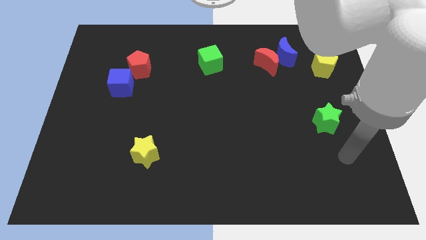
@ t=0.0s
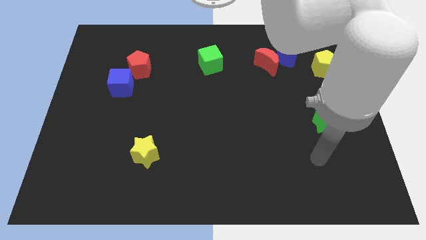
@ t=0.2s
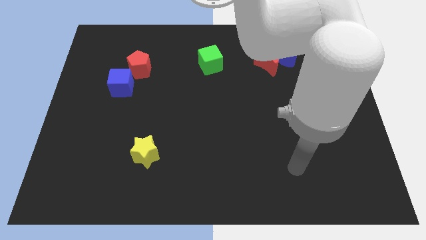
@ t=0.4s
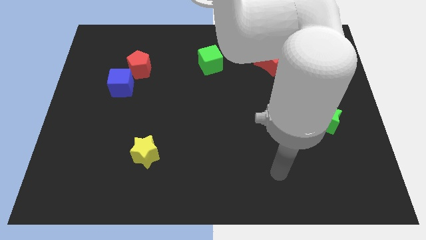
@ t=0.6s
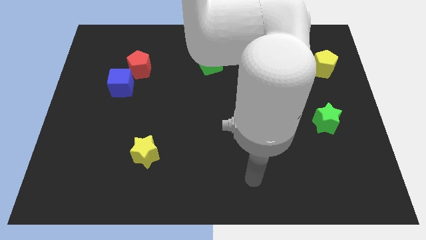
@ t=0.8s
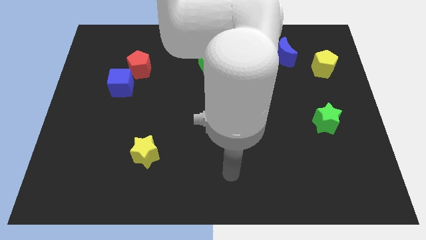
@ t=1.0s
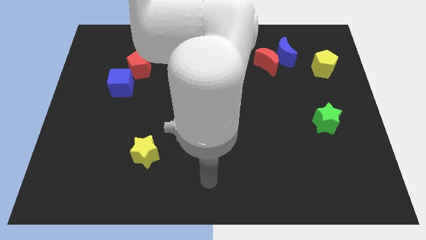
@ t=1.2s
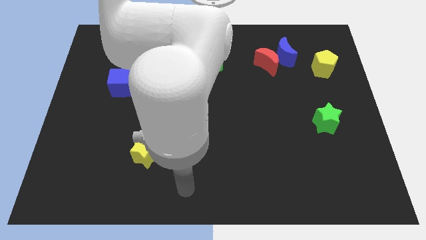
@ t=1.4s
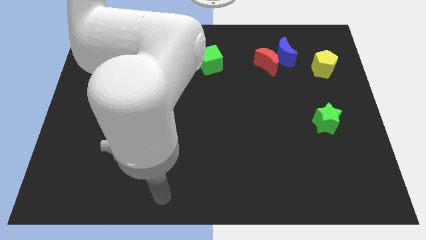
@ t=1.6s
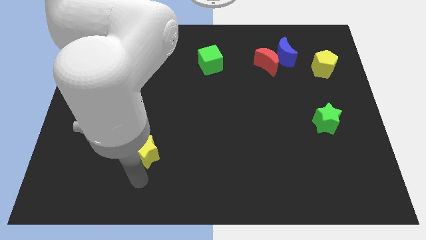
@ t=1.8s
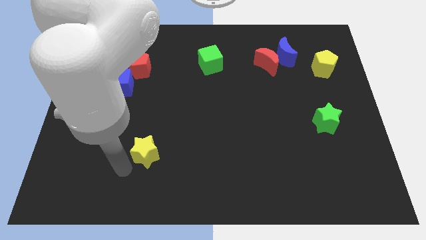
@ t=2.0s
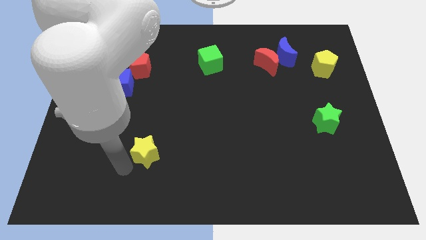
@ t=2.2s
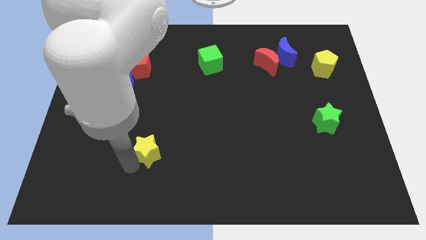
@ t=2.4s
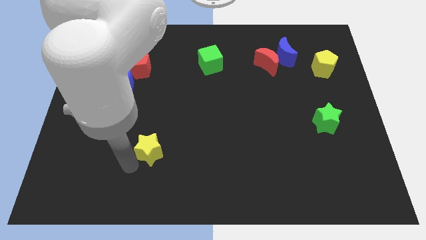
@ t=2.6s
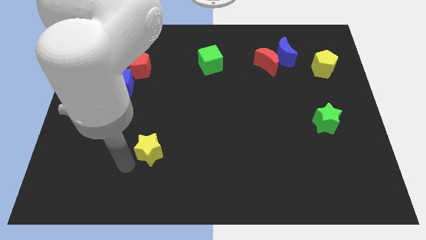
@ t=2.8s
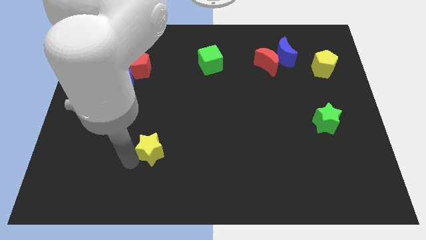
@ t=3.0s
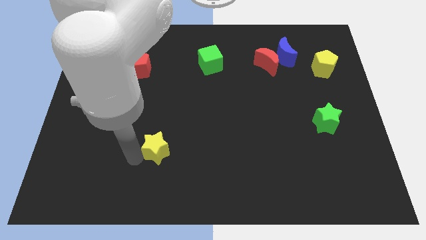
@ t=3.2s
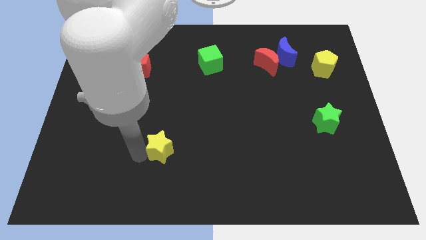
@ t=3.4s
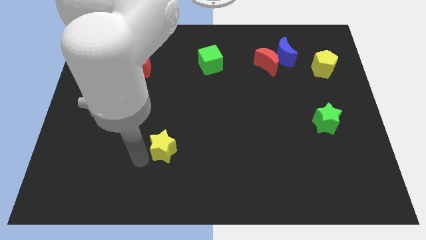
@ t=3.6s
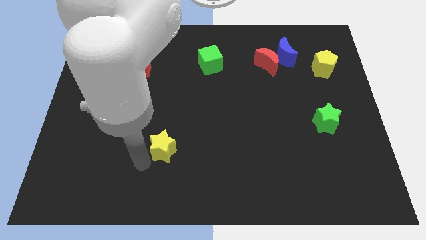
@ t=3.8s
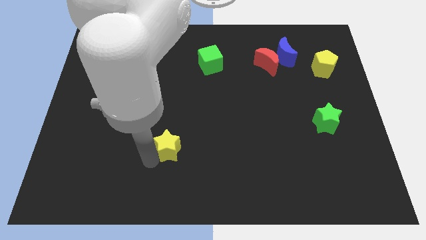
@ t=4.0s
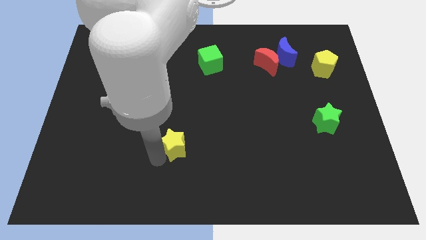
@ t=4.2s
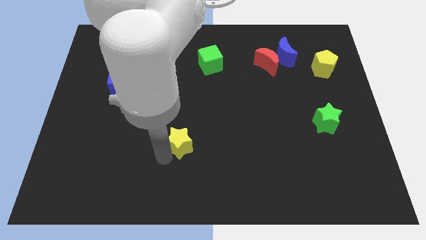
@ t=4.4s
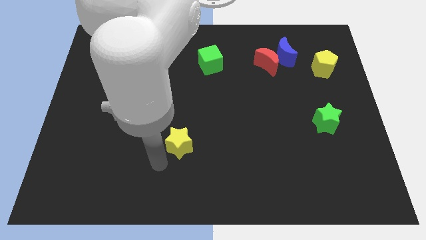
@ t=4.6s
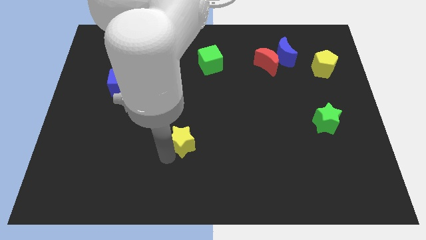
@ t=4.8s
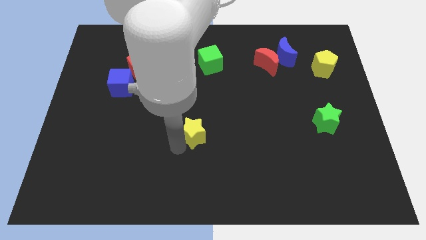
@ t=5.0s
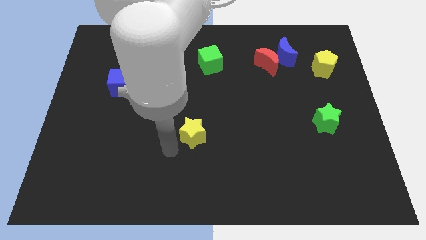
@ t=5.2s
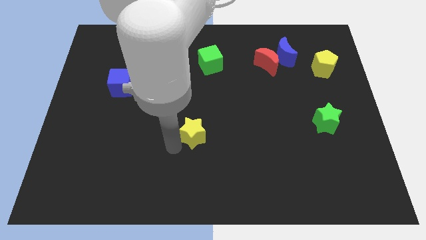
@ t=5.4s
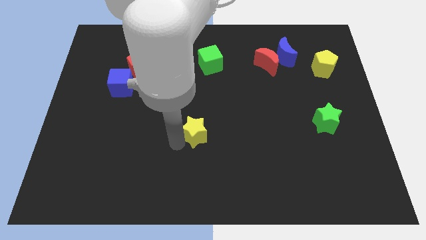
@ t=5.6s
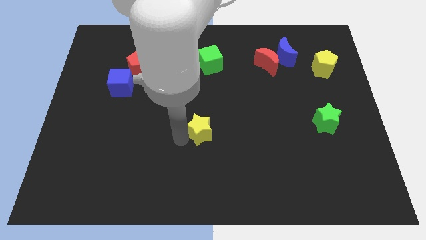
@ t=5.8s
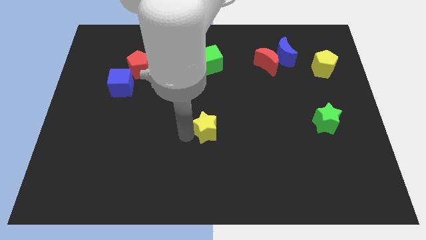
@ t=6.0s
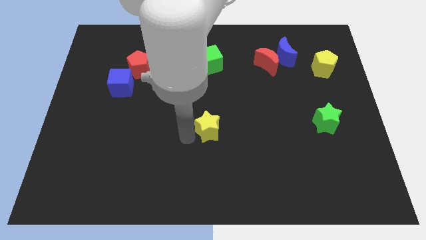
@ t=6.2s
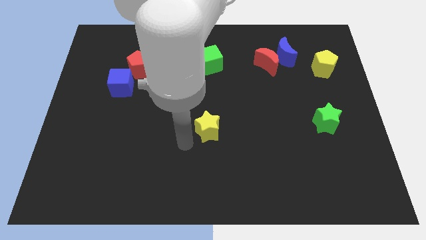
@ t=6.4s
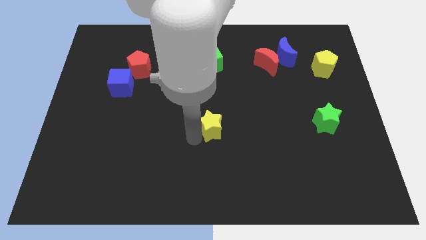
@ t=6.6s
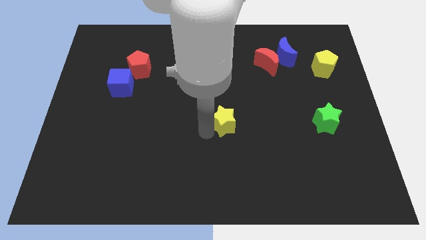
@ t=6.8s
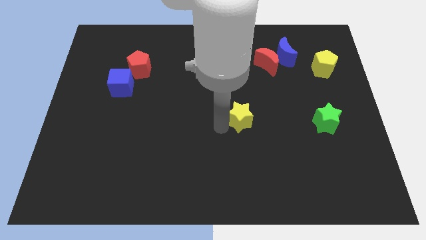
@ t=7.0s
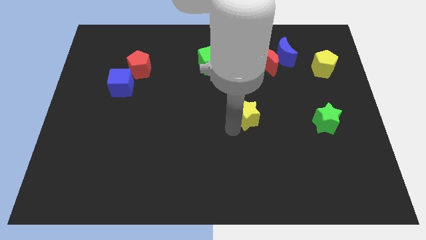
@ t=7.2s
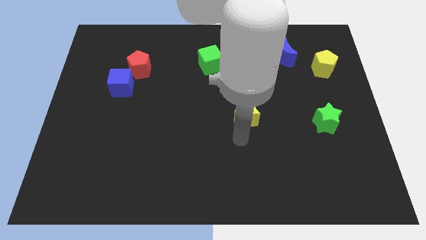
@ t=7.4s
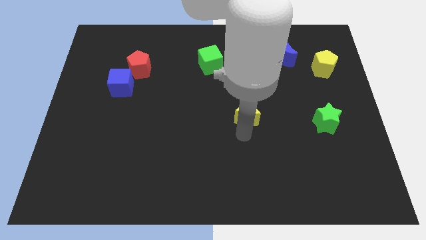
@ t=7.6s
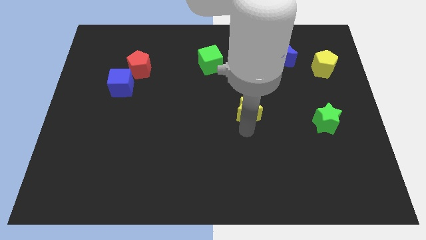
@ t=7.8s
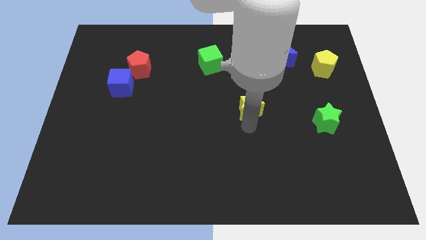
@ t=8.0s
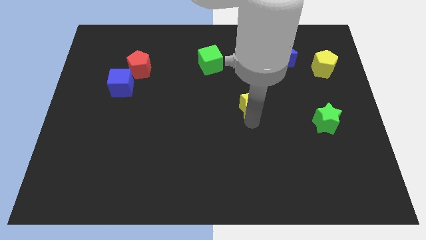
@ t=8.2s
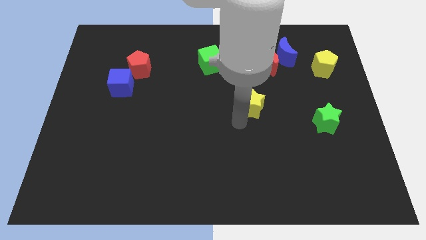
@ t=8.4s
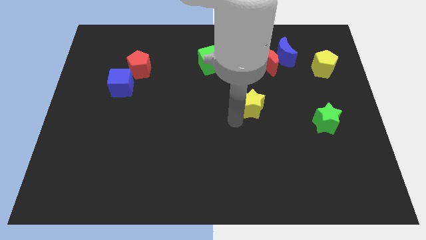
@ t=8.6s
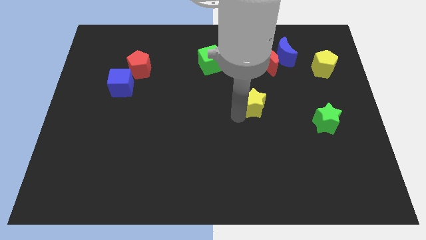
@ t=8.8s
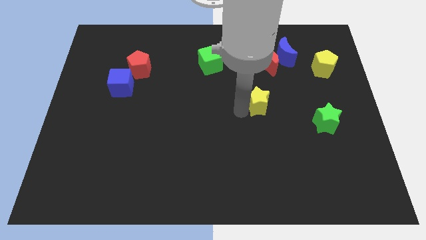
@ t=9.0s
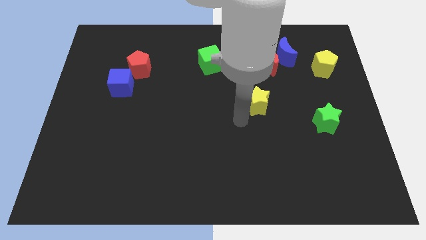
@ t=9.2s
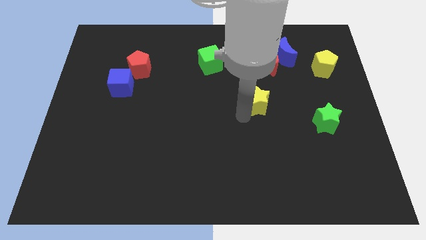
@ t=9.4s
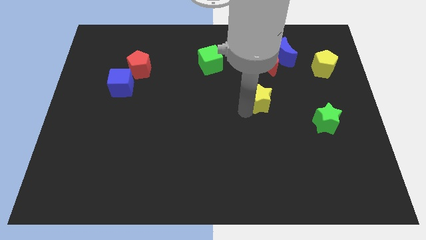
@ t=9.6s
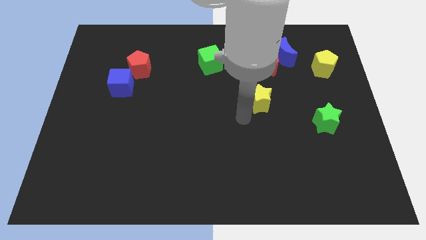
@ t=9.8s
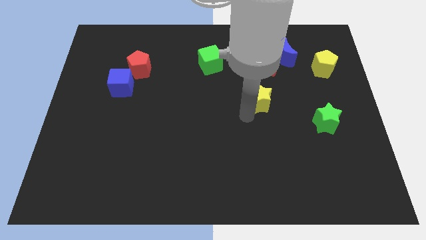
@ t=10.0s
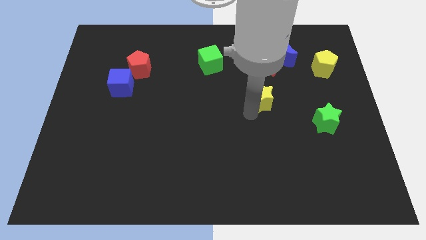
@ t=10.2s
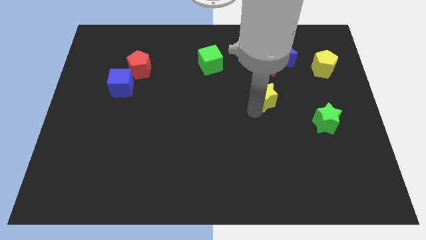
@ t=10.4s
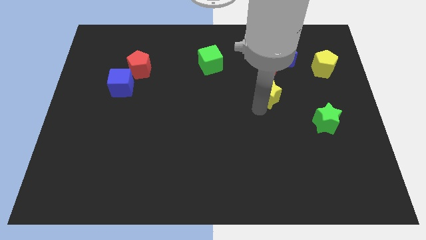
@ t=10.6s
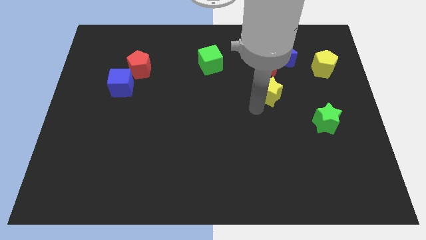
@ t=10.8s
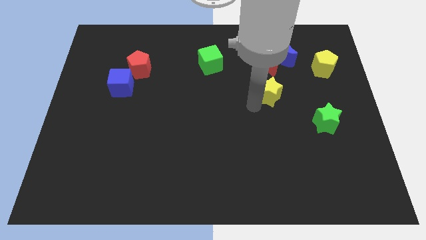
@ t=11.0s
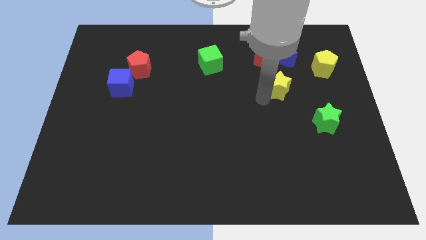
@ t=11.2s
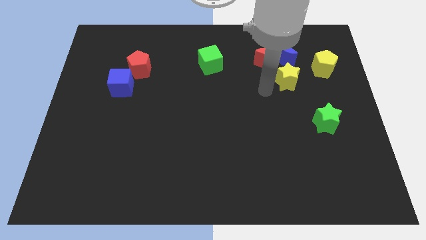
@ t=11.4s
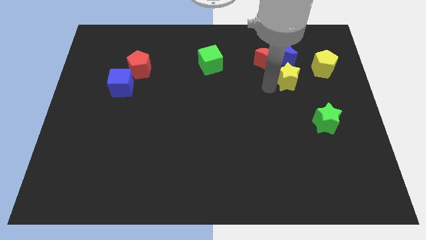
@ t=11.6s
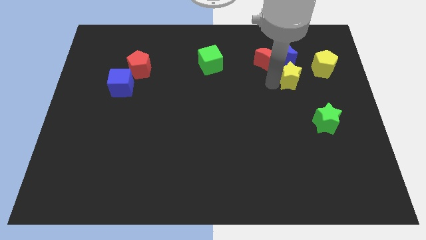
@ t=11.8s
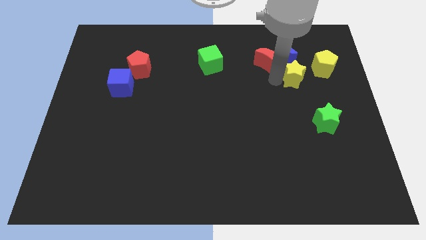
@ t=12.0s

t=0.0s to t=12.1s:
move the yellow star to the bottom right of the blue moon

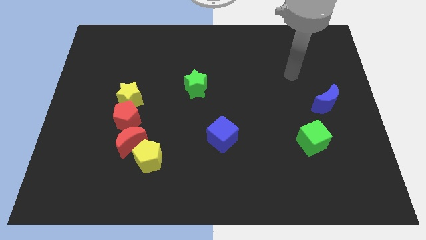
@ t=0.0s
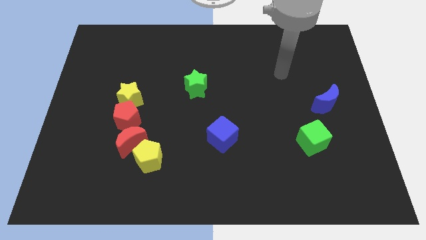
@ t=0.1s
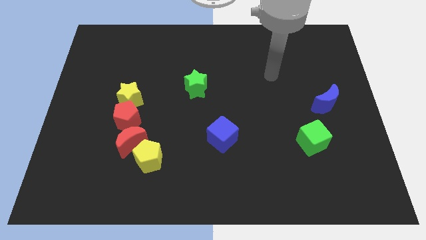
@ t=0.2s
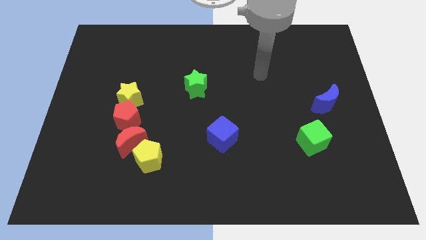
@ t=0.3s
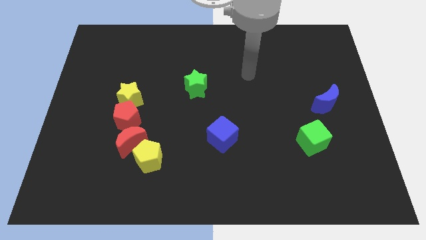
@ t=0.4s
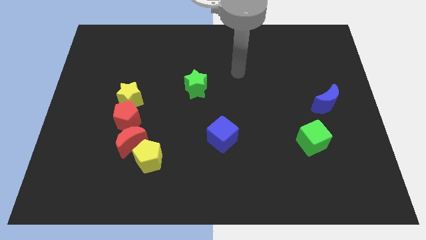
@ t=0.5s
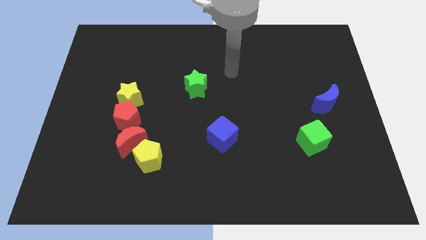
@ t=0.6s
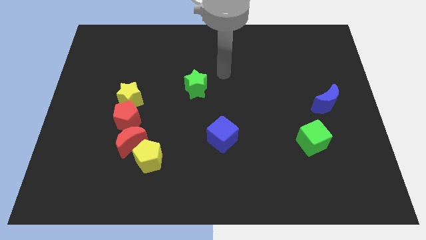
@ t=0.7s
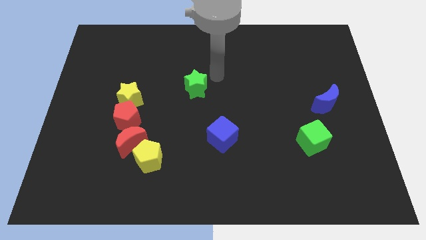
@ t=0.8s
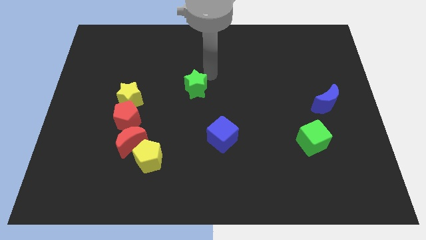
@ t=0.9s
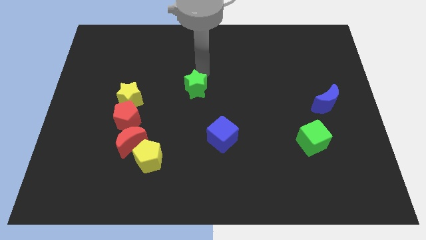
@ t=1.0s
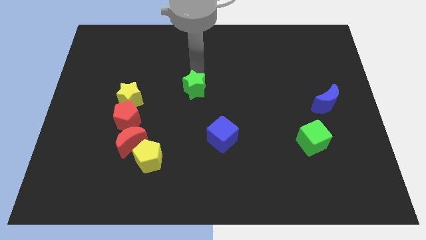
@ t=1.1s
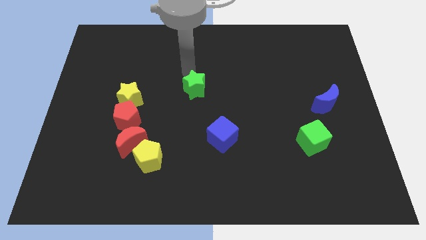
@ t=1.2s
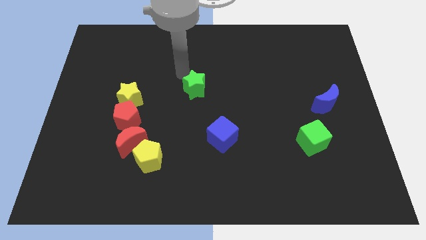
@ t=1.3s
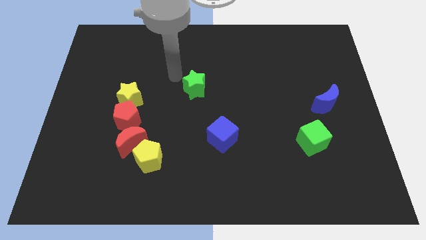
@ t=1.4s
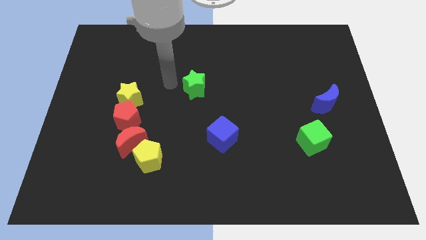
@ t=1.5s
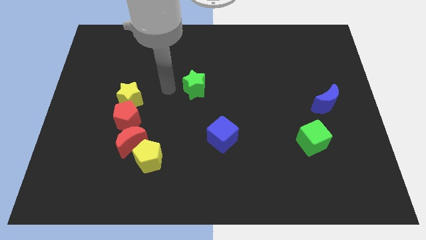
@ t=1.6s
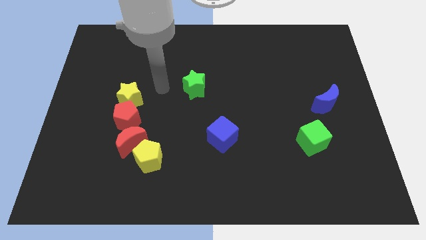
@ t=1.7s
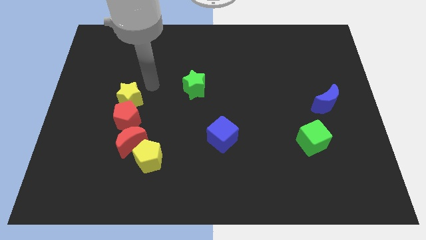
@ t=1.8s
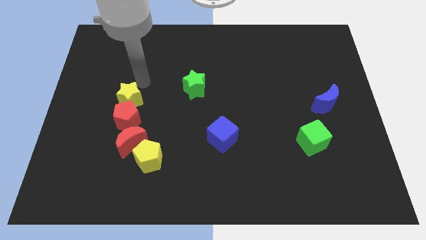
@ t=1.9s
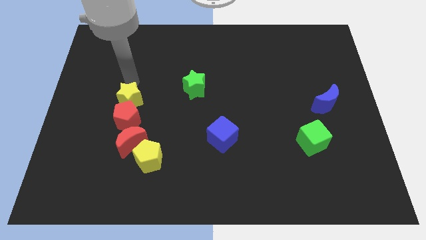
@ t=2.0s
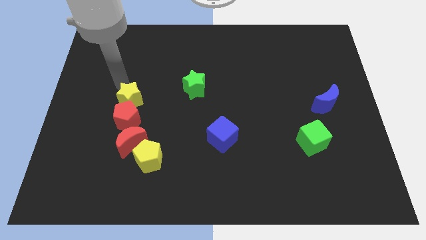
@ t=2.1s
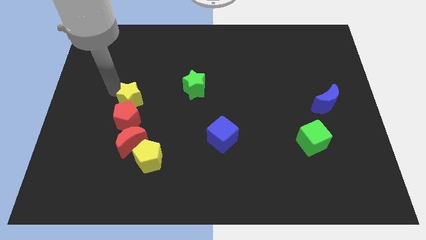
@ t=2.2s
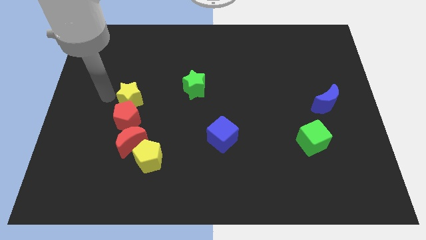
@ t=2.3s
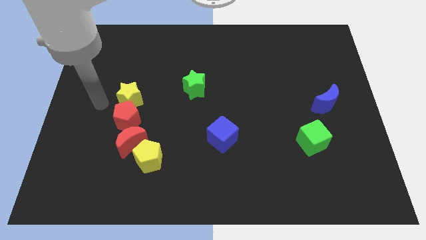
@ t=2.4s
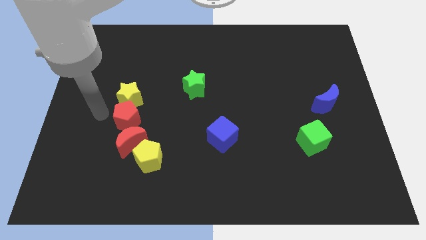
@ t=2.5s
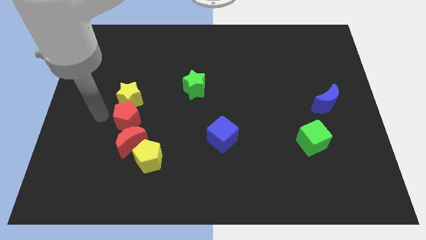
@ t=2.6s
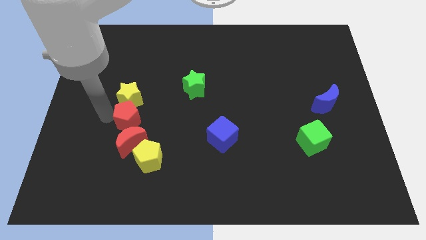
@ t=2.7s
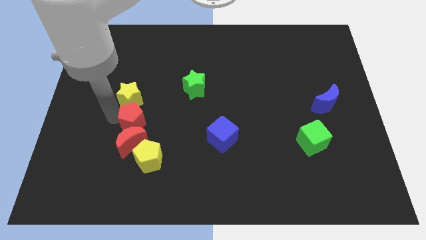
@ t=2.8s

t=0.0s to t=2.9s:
push the red pentagon to the top right side of the red moon
